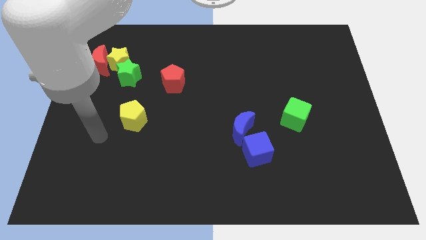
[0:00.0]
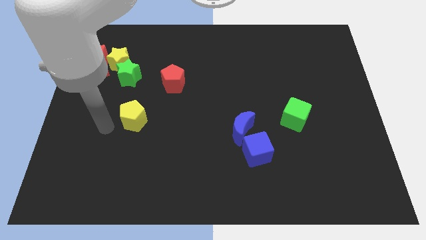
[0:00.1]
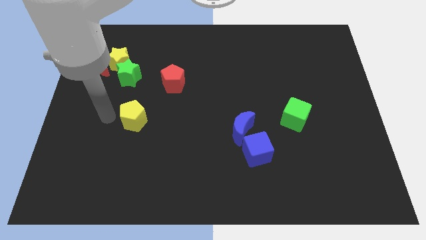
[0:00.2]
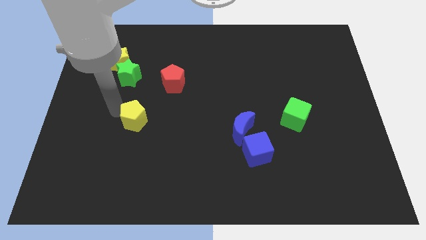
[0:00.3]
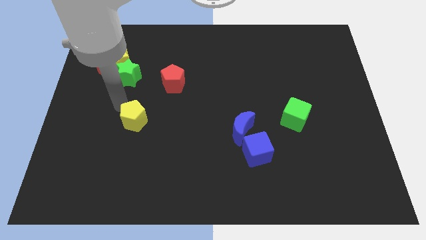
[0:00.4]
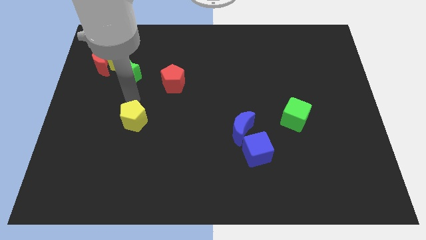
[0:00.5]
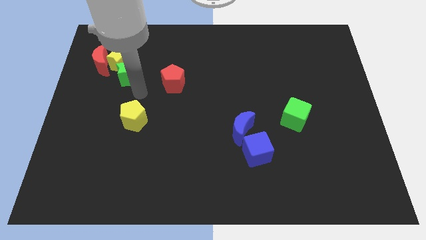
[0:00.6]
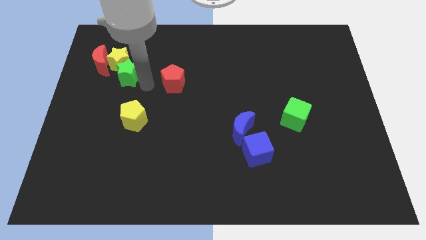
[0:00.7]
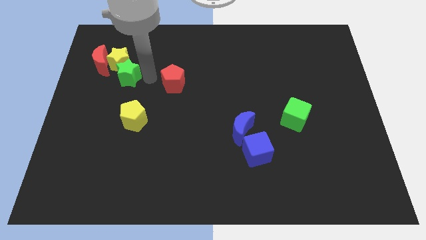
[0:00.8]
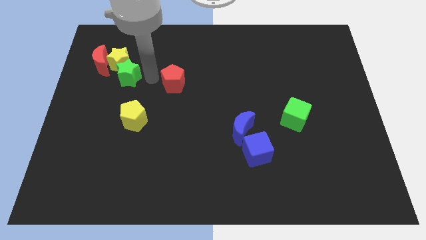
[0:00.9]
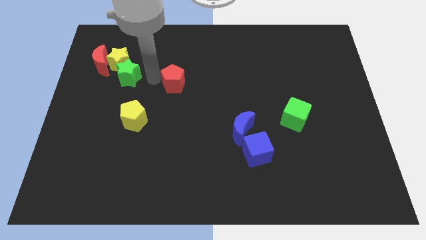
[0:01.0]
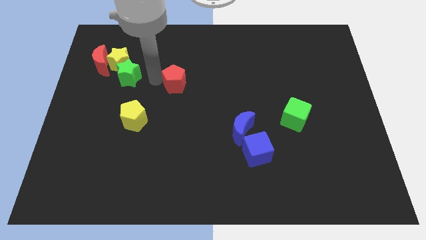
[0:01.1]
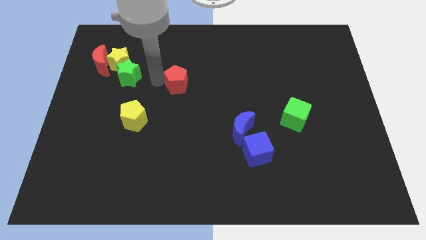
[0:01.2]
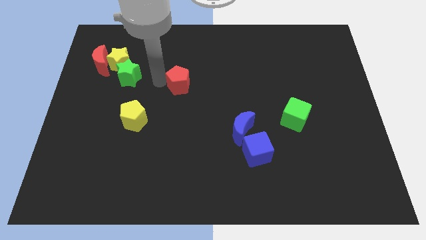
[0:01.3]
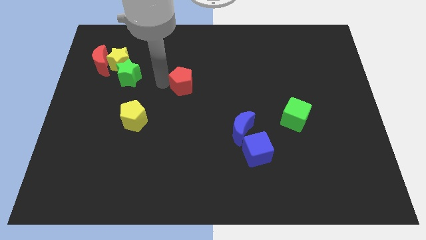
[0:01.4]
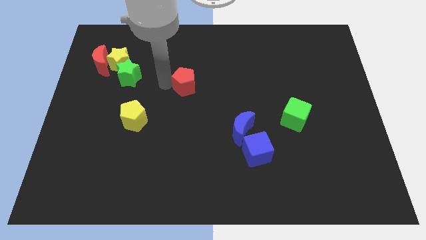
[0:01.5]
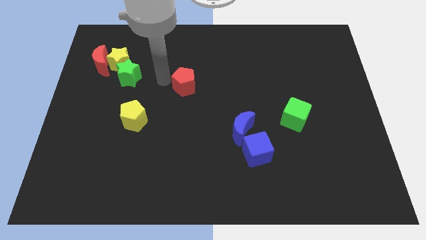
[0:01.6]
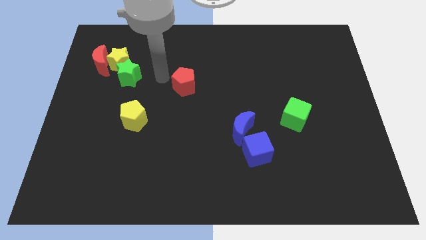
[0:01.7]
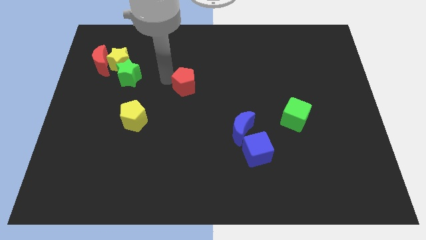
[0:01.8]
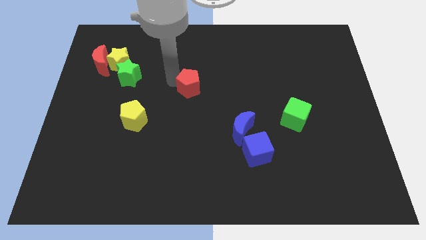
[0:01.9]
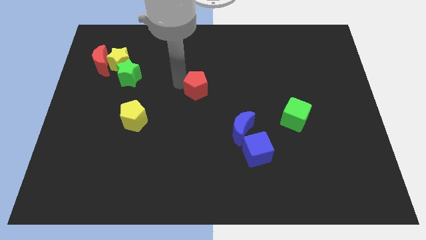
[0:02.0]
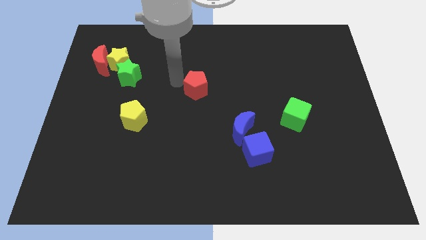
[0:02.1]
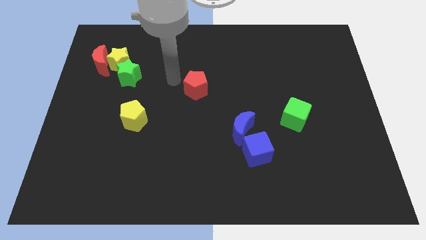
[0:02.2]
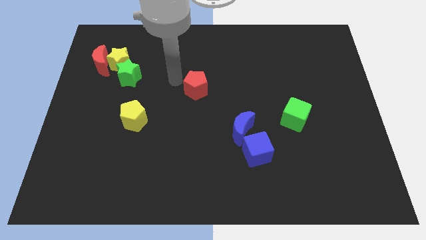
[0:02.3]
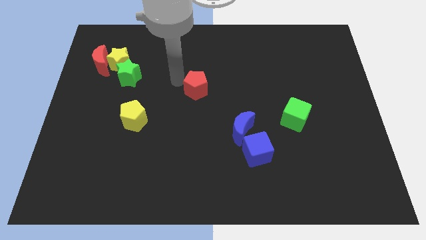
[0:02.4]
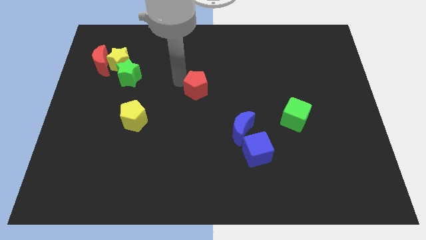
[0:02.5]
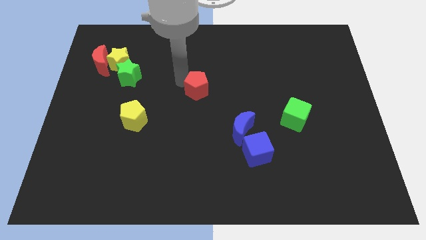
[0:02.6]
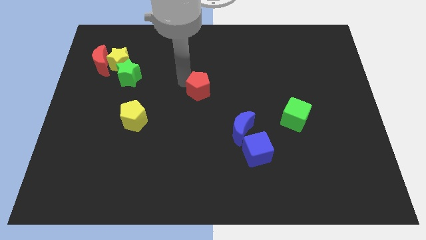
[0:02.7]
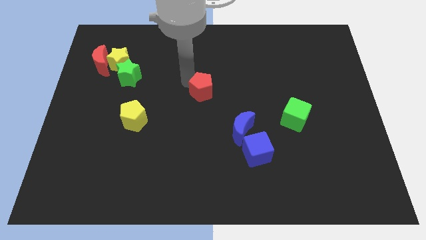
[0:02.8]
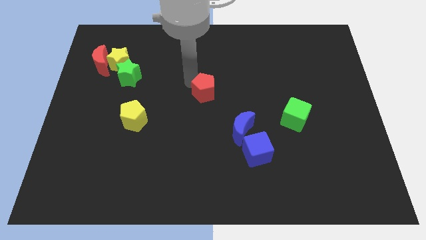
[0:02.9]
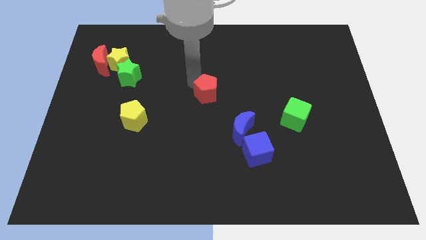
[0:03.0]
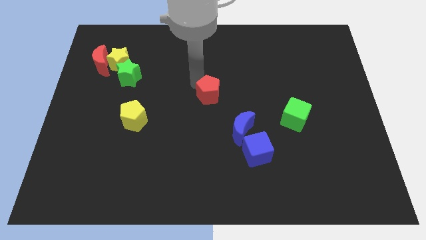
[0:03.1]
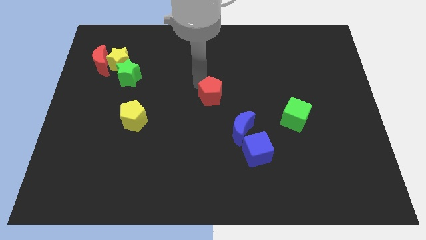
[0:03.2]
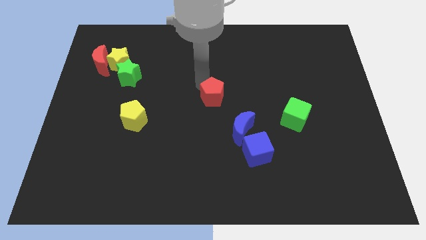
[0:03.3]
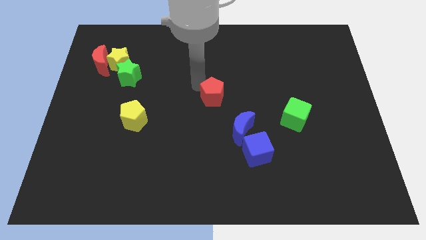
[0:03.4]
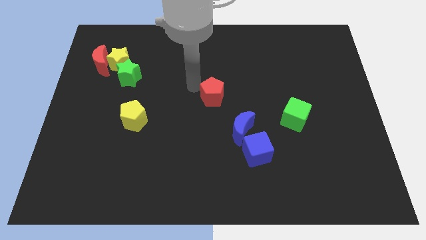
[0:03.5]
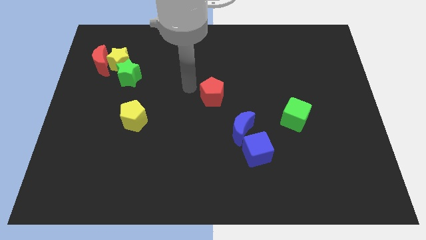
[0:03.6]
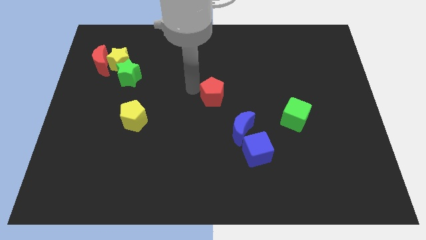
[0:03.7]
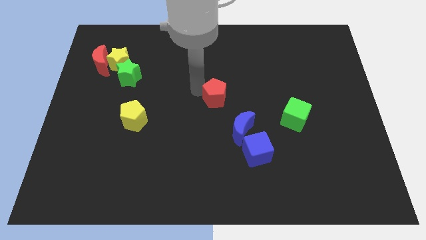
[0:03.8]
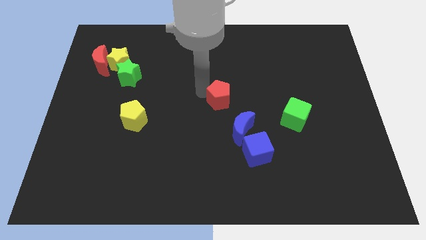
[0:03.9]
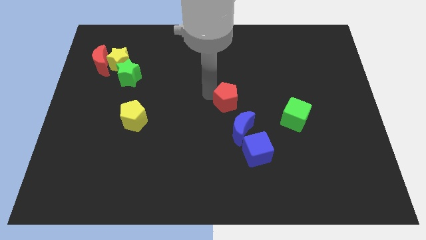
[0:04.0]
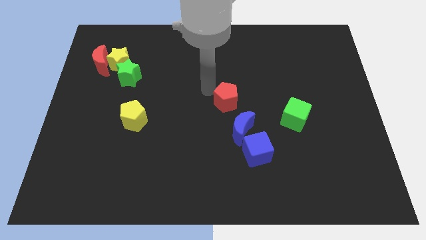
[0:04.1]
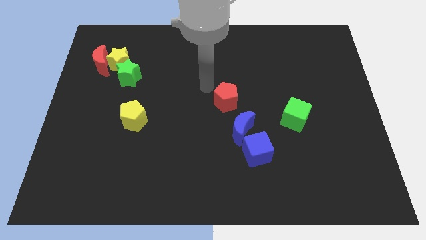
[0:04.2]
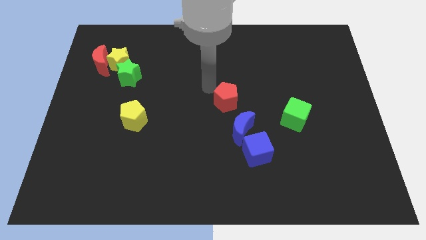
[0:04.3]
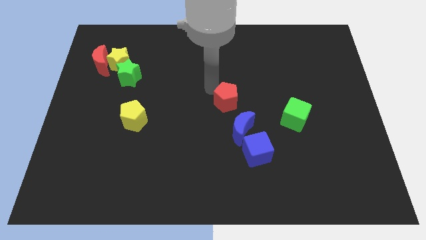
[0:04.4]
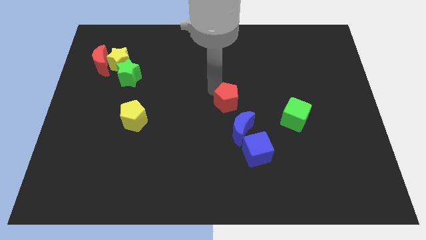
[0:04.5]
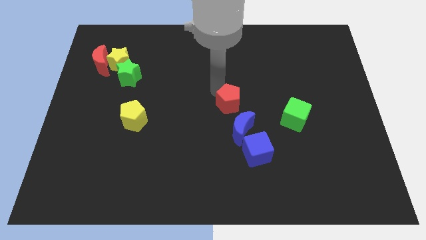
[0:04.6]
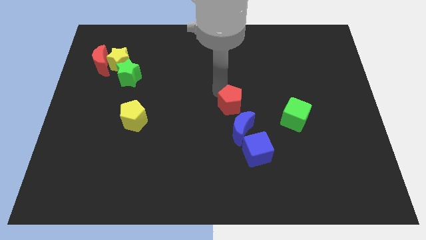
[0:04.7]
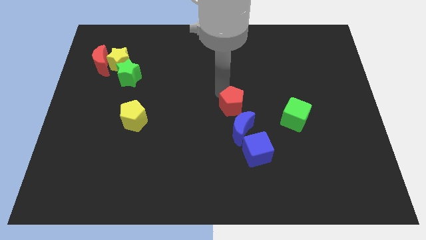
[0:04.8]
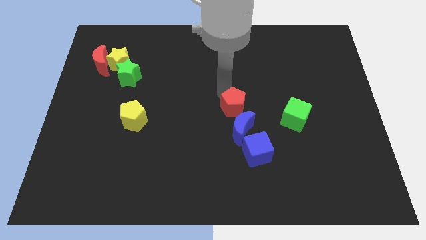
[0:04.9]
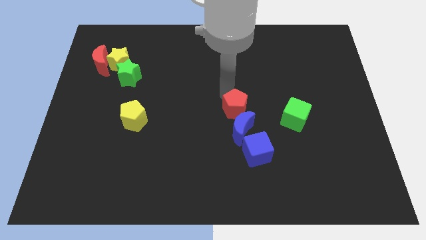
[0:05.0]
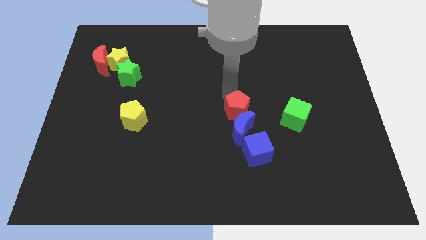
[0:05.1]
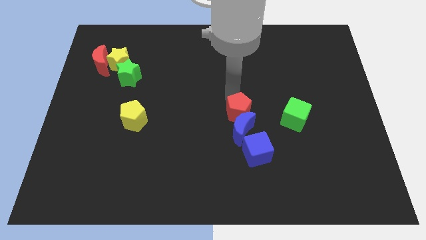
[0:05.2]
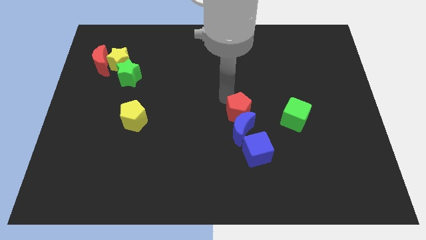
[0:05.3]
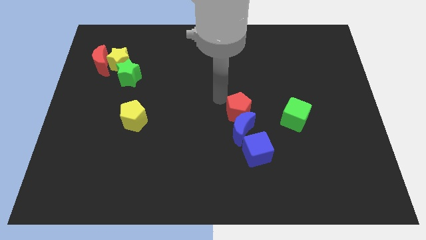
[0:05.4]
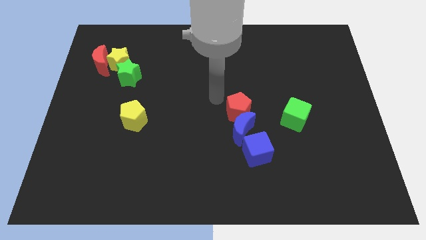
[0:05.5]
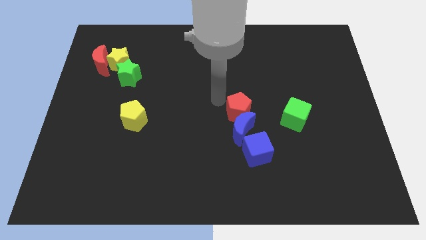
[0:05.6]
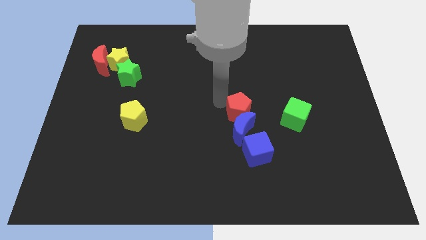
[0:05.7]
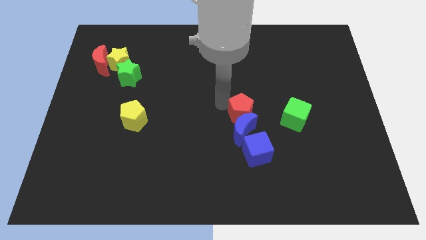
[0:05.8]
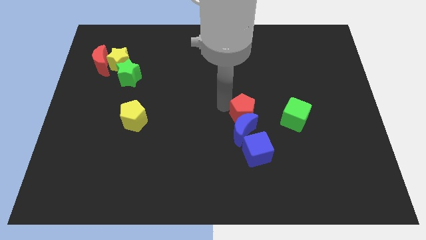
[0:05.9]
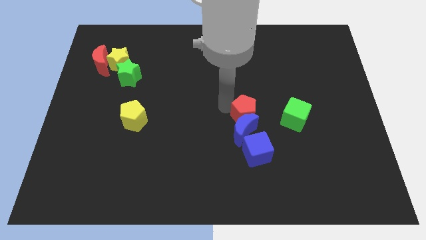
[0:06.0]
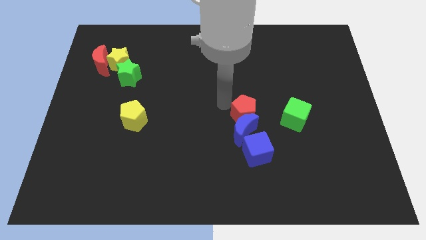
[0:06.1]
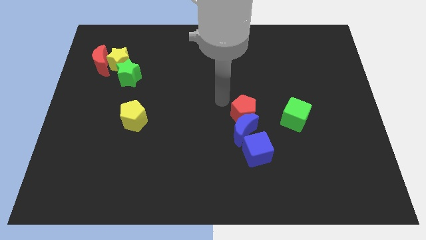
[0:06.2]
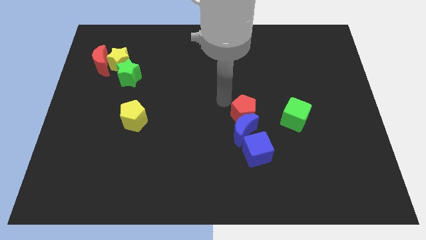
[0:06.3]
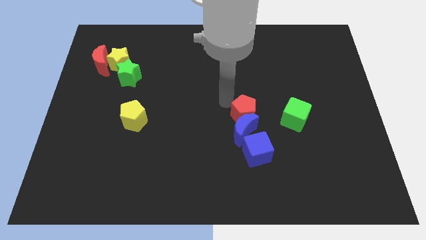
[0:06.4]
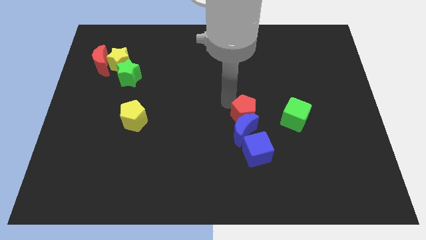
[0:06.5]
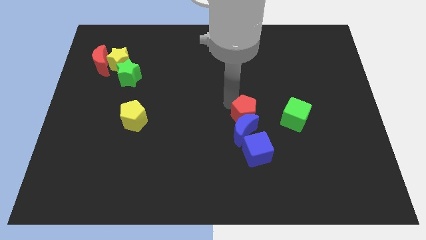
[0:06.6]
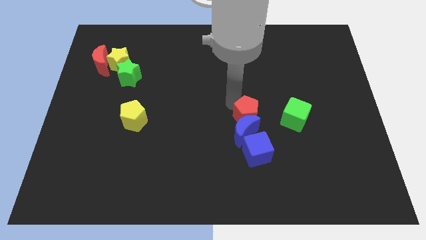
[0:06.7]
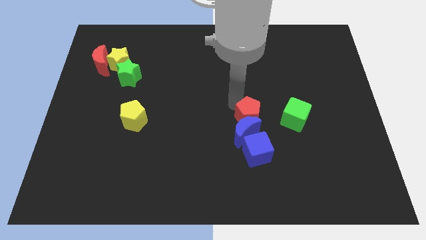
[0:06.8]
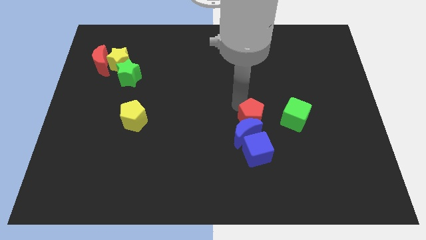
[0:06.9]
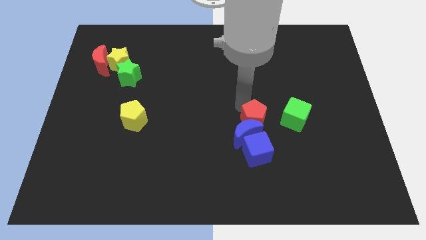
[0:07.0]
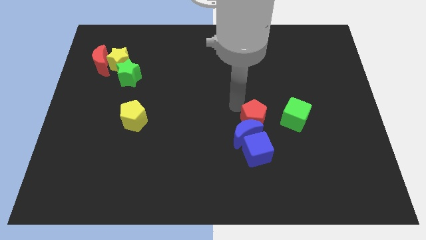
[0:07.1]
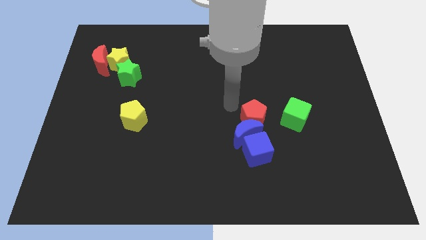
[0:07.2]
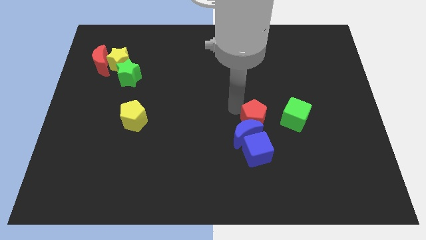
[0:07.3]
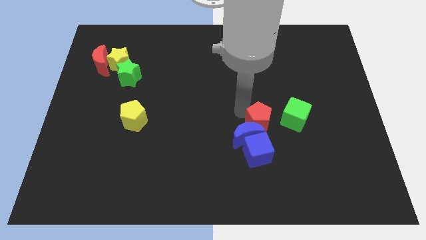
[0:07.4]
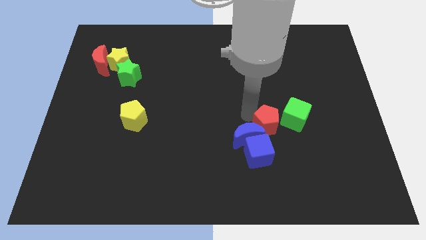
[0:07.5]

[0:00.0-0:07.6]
move the red pentagon to the top right of the blue cube

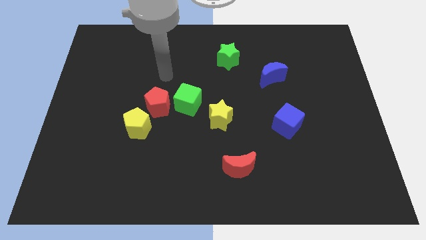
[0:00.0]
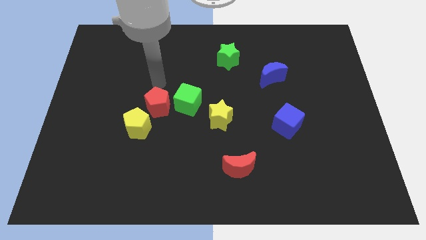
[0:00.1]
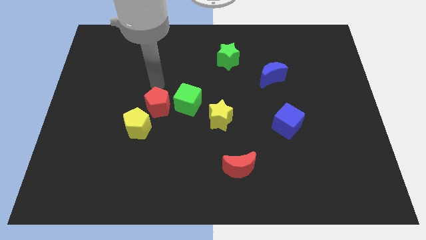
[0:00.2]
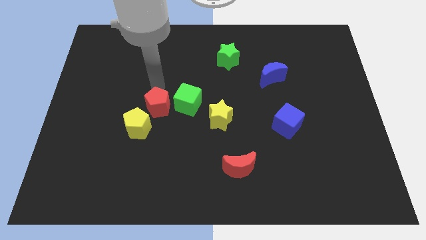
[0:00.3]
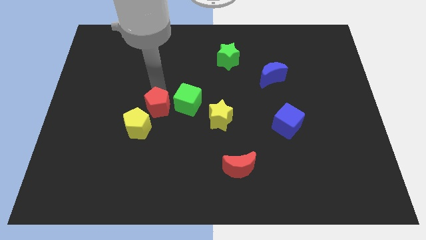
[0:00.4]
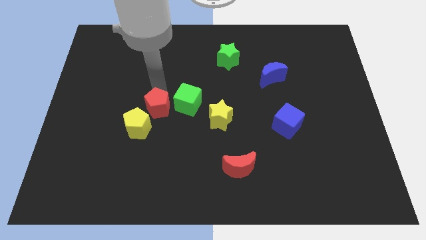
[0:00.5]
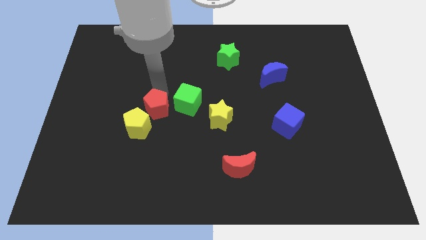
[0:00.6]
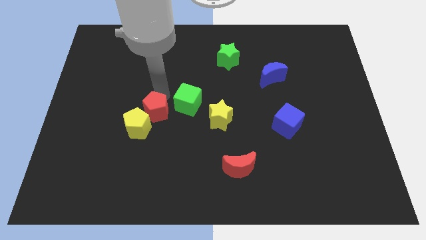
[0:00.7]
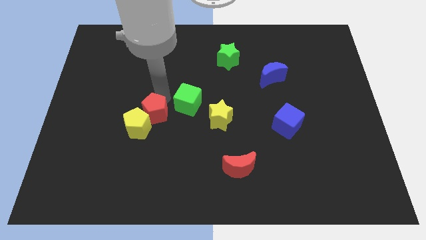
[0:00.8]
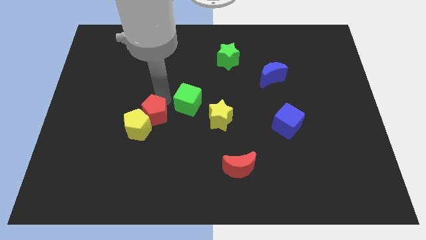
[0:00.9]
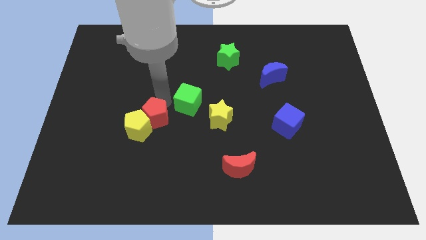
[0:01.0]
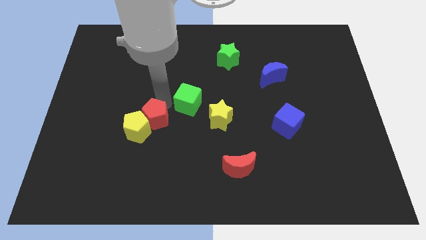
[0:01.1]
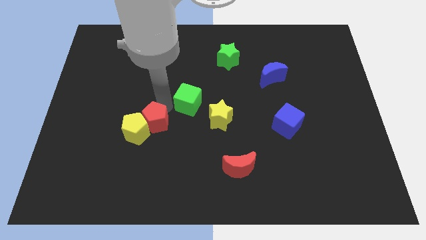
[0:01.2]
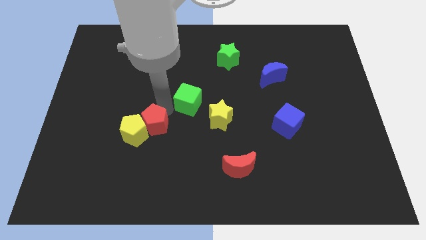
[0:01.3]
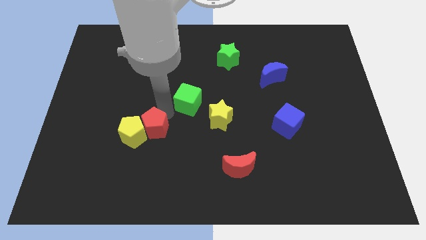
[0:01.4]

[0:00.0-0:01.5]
slide the red pentagon diagonally down and to the right of the yellow pentagon
